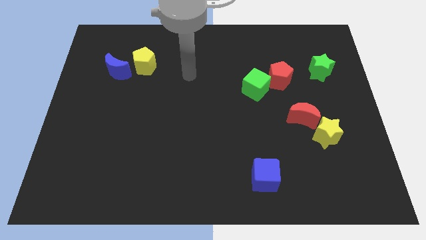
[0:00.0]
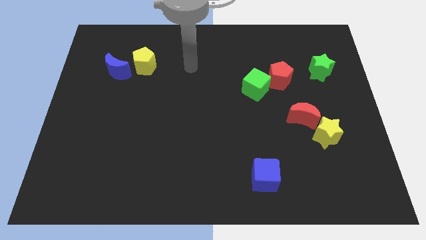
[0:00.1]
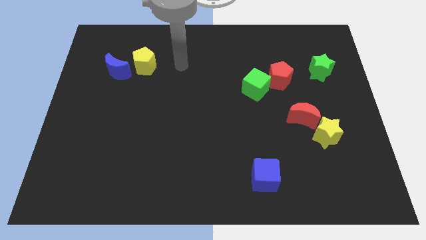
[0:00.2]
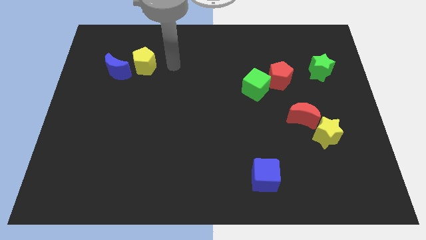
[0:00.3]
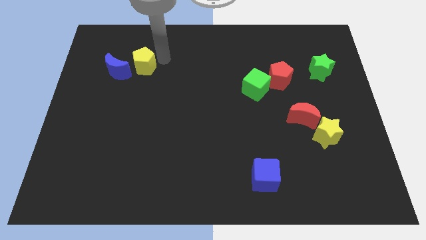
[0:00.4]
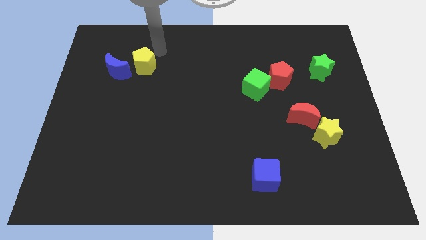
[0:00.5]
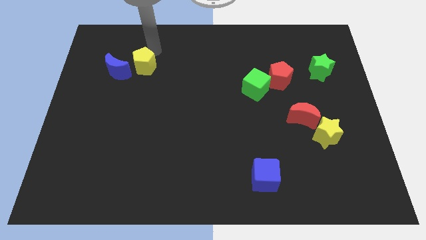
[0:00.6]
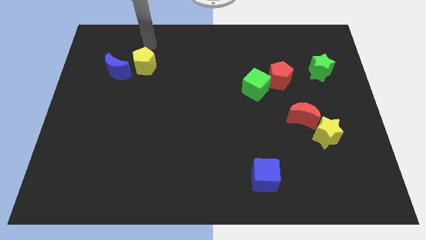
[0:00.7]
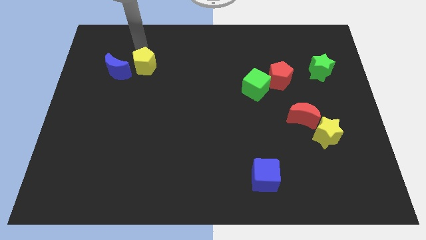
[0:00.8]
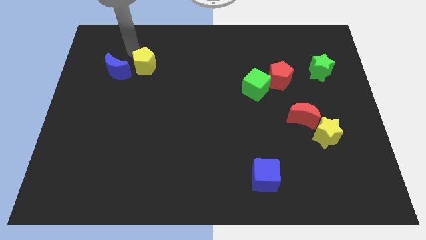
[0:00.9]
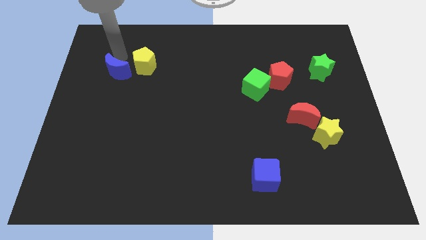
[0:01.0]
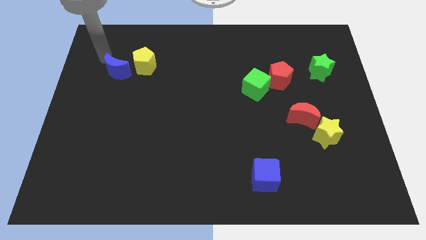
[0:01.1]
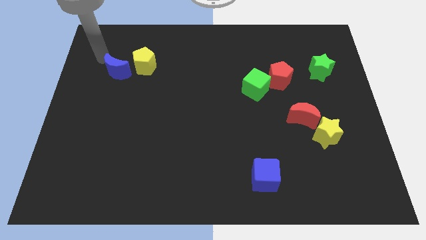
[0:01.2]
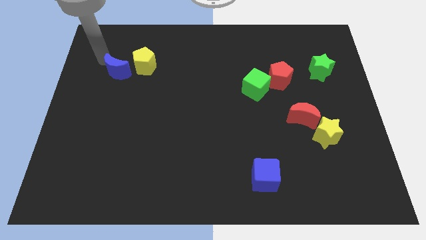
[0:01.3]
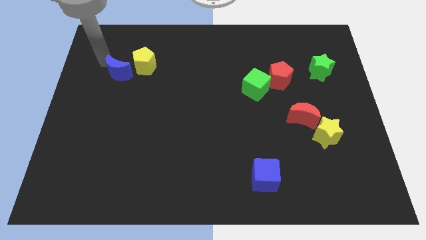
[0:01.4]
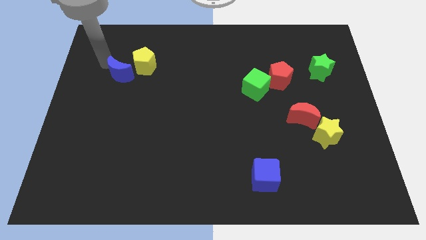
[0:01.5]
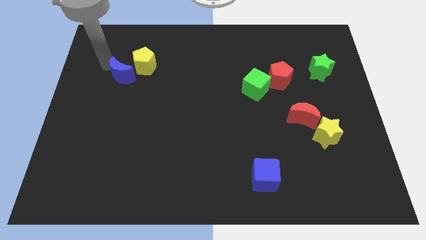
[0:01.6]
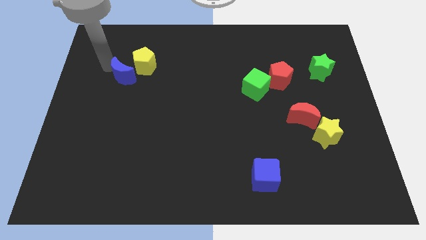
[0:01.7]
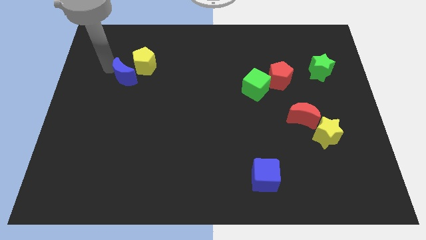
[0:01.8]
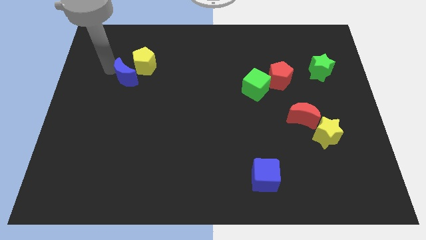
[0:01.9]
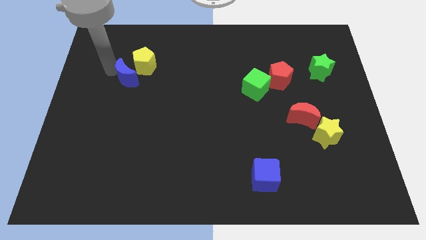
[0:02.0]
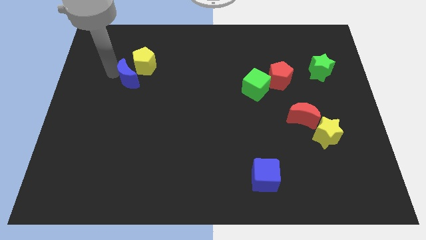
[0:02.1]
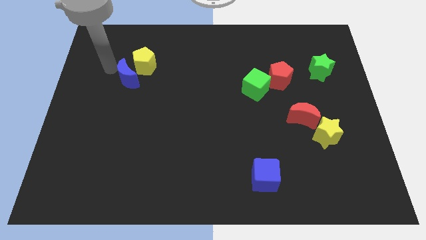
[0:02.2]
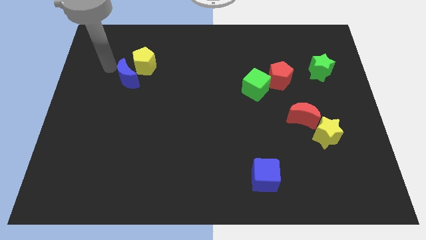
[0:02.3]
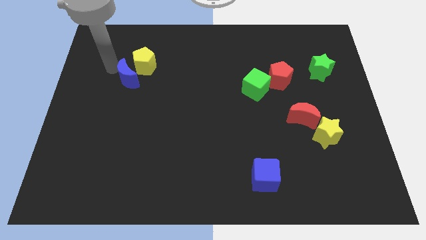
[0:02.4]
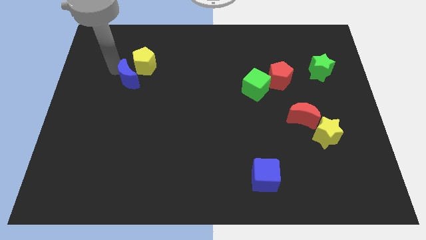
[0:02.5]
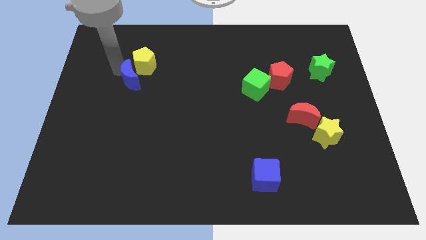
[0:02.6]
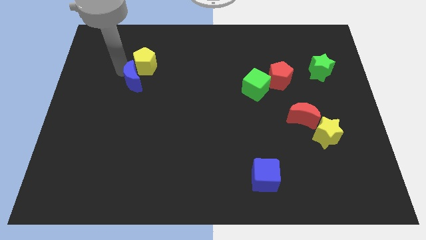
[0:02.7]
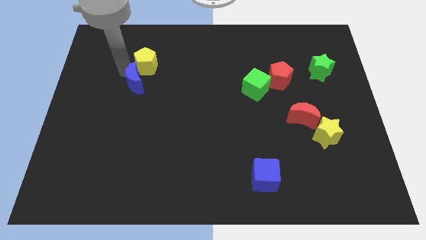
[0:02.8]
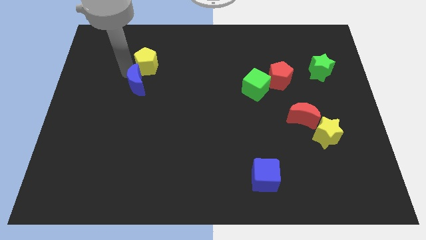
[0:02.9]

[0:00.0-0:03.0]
slightly move the blue moon down and then to the right

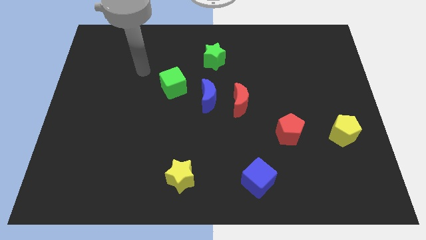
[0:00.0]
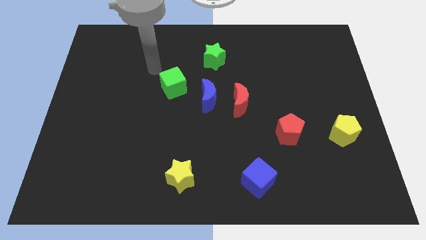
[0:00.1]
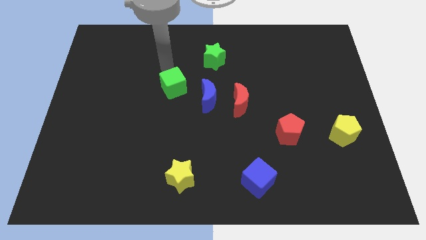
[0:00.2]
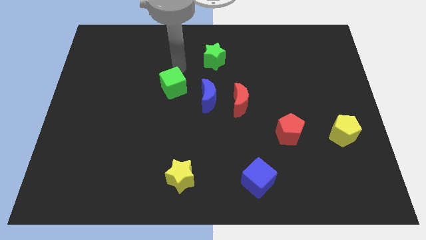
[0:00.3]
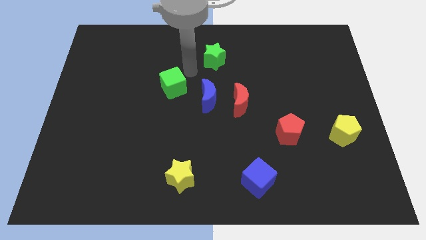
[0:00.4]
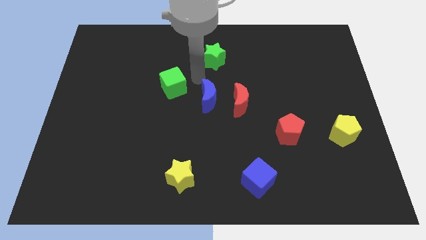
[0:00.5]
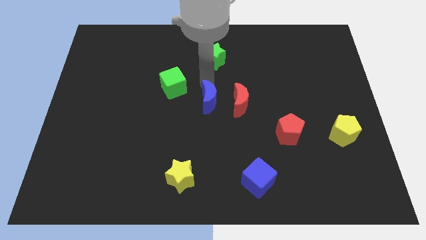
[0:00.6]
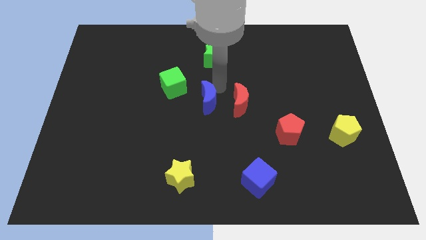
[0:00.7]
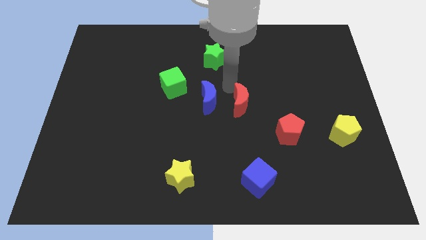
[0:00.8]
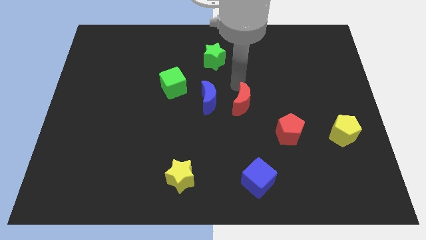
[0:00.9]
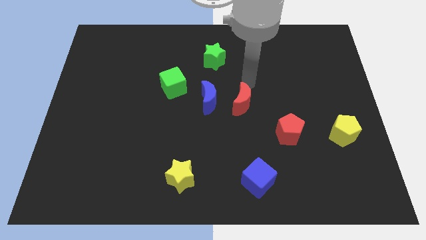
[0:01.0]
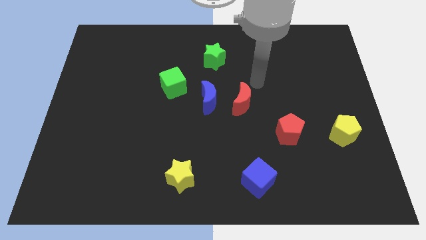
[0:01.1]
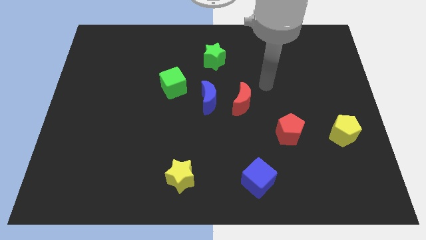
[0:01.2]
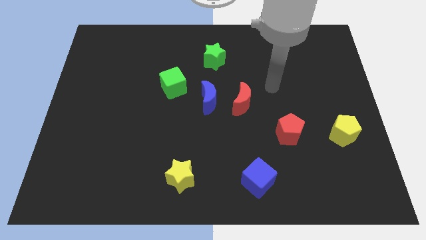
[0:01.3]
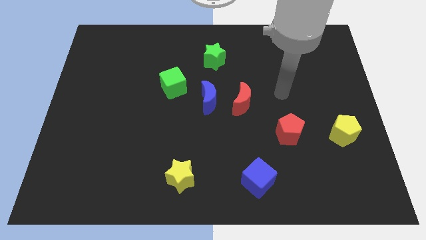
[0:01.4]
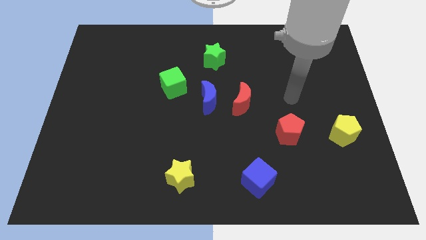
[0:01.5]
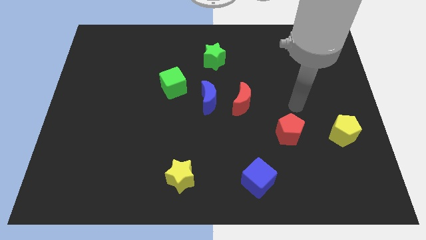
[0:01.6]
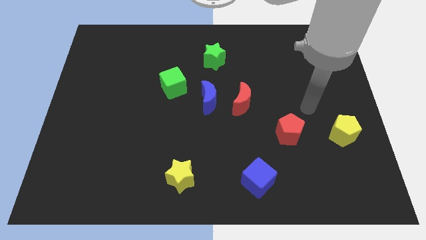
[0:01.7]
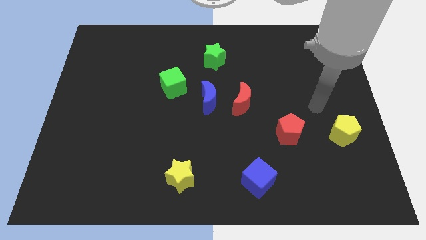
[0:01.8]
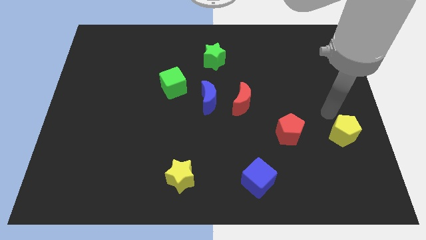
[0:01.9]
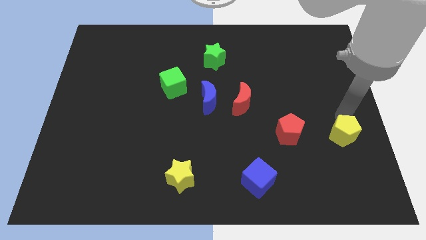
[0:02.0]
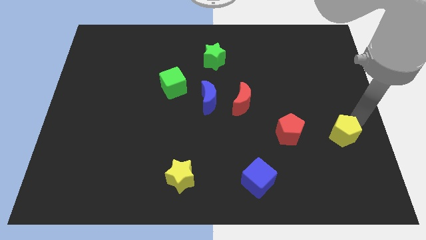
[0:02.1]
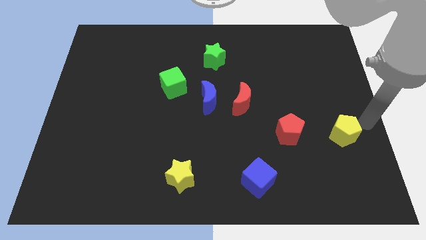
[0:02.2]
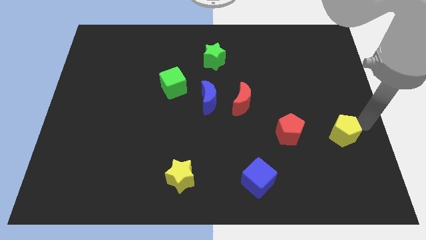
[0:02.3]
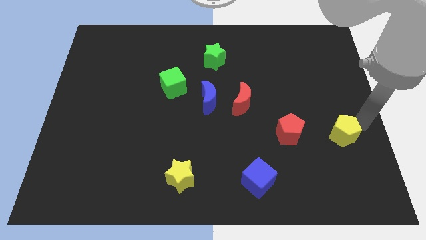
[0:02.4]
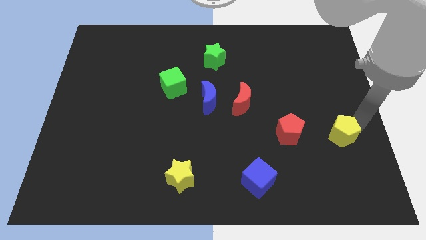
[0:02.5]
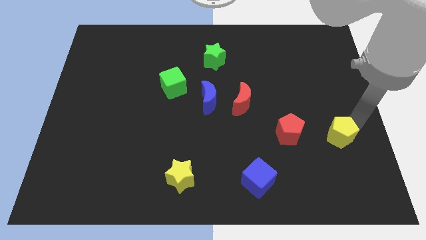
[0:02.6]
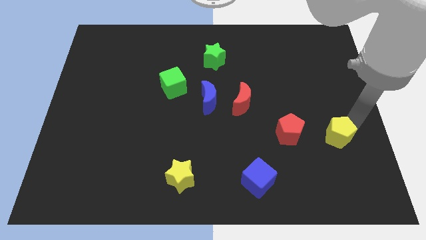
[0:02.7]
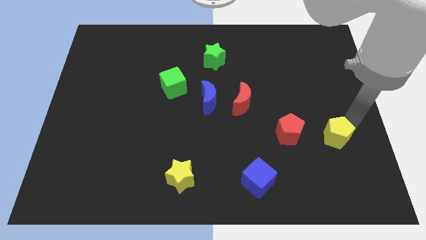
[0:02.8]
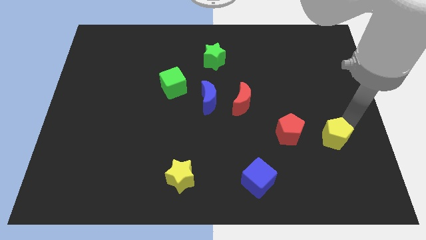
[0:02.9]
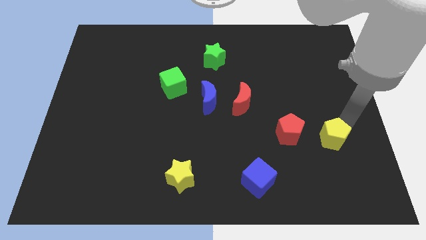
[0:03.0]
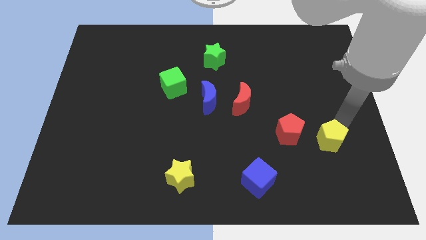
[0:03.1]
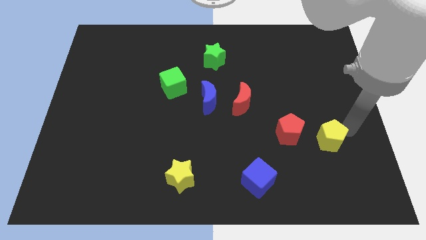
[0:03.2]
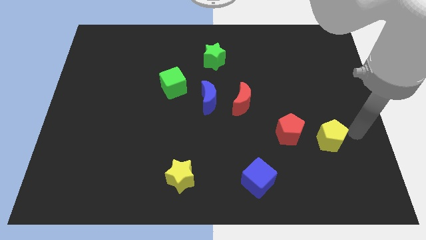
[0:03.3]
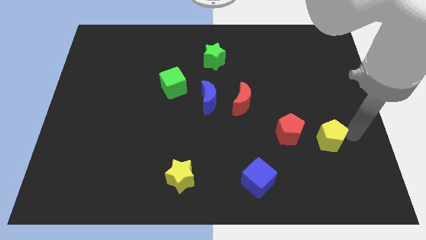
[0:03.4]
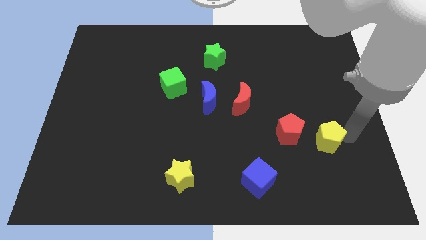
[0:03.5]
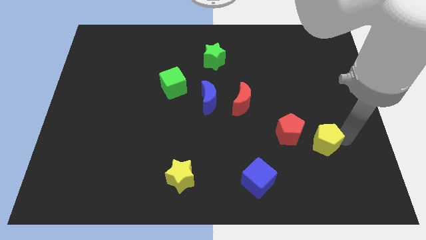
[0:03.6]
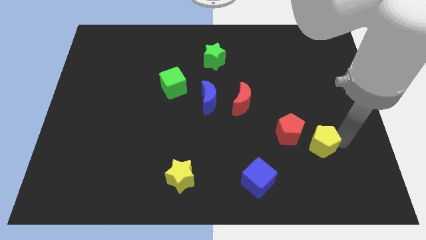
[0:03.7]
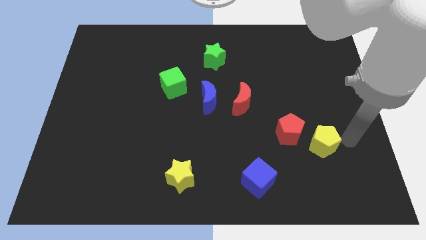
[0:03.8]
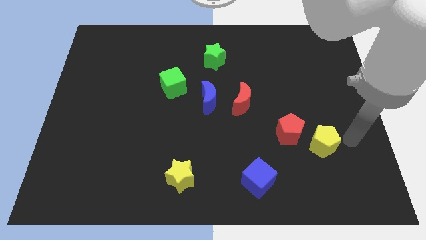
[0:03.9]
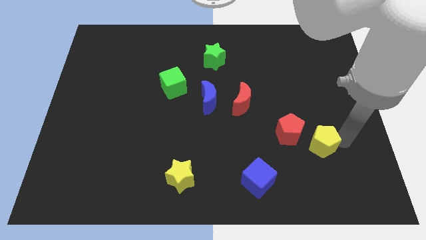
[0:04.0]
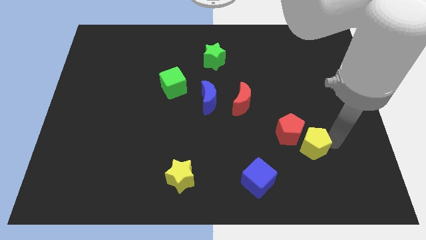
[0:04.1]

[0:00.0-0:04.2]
push the yellow pentagon slightly to the left

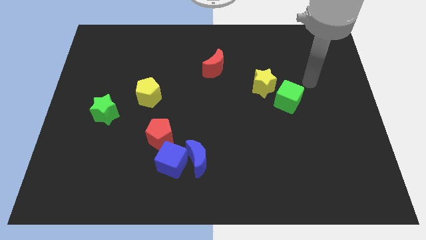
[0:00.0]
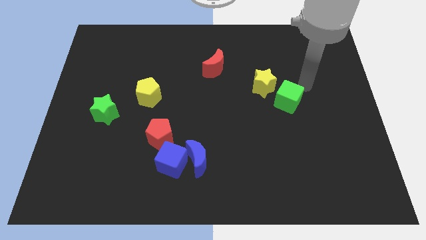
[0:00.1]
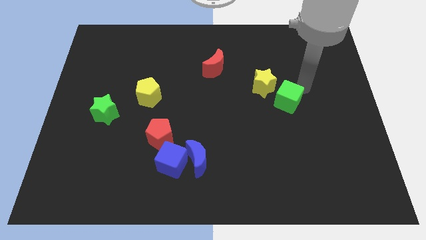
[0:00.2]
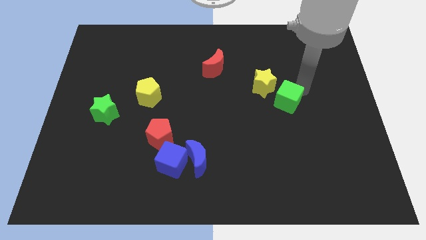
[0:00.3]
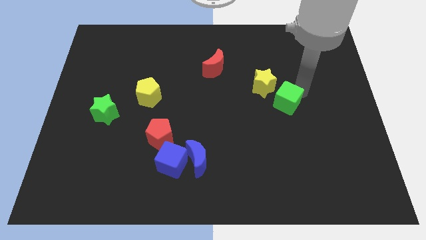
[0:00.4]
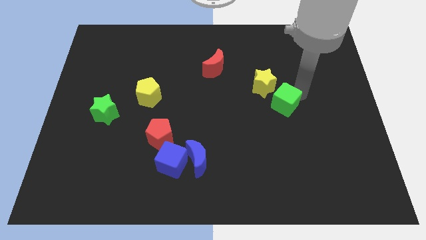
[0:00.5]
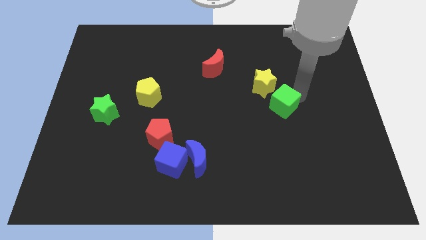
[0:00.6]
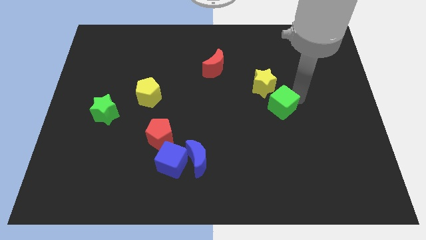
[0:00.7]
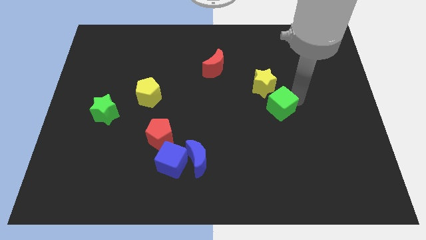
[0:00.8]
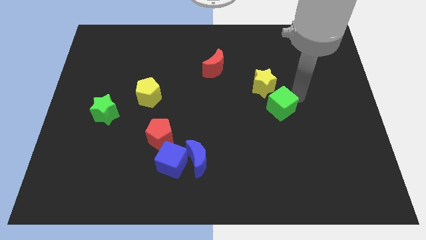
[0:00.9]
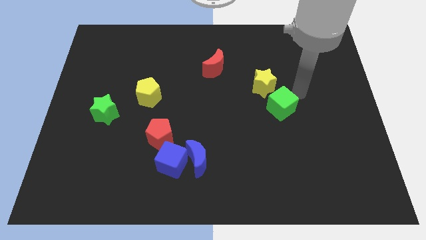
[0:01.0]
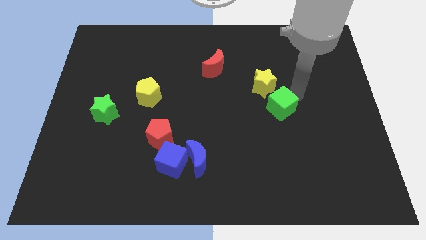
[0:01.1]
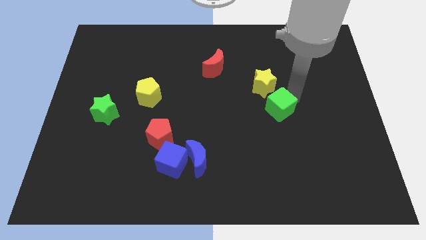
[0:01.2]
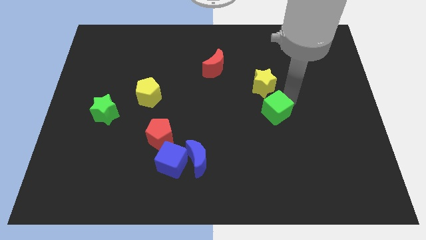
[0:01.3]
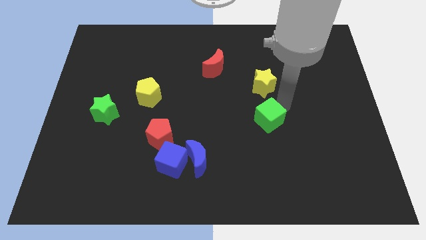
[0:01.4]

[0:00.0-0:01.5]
slightly push the green cube down and left
